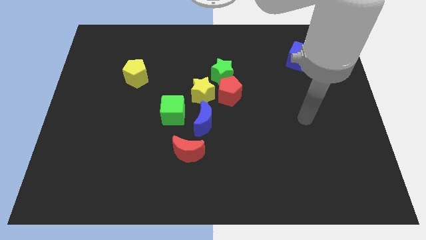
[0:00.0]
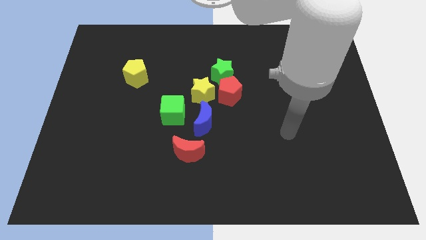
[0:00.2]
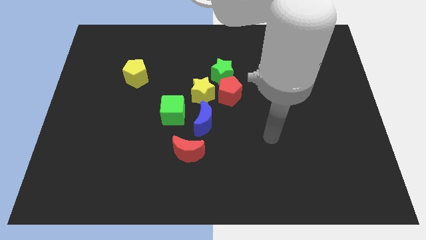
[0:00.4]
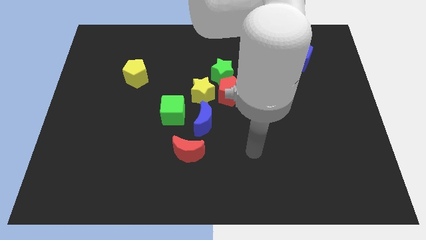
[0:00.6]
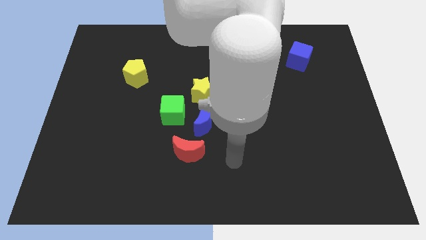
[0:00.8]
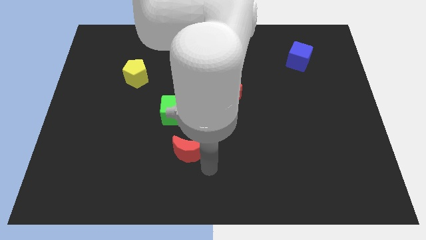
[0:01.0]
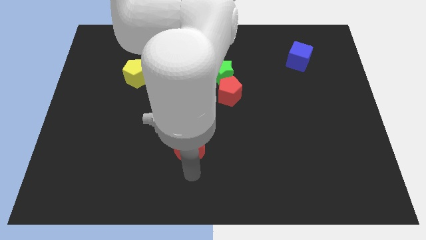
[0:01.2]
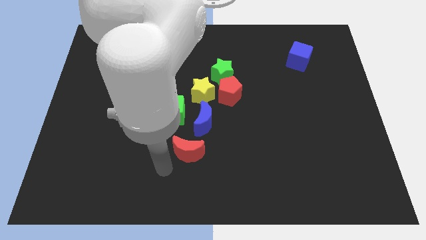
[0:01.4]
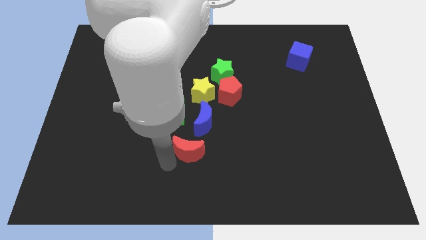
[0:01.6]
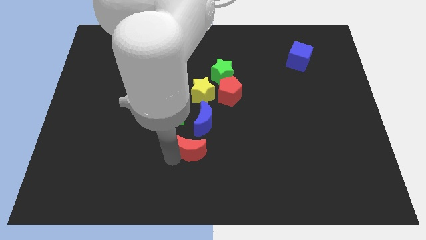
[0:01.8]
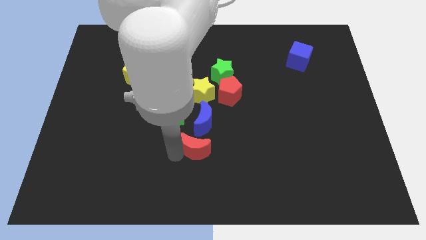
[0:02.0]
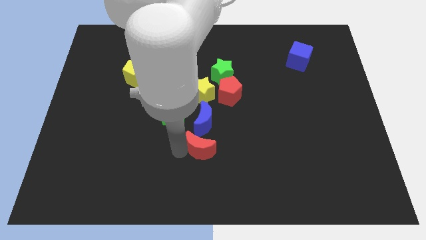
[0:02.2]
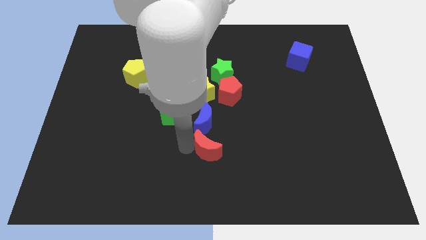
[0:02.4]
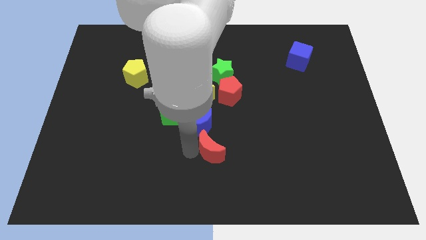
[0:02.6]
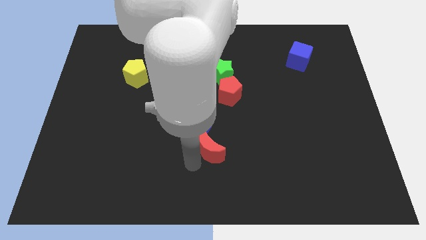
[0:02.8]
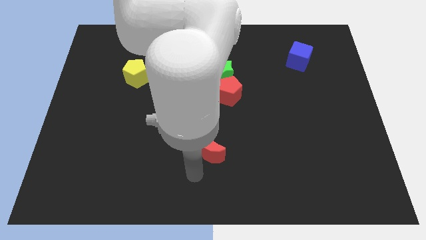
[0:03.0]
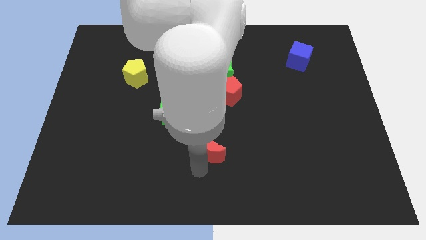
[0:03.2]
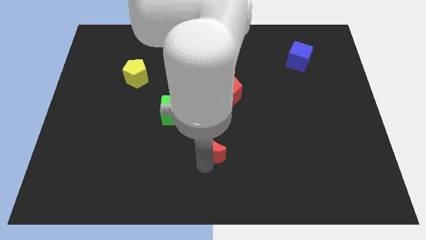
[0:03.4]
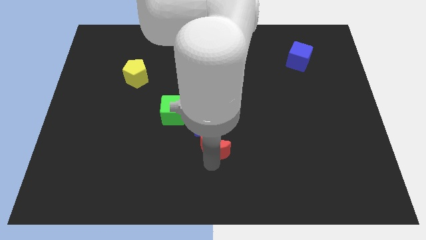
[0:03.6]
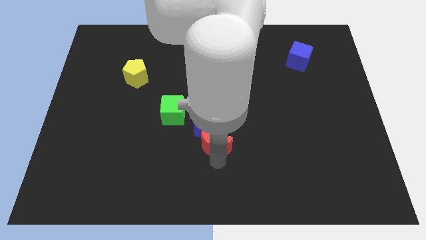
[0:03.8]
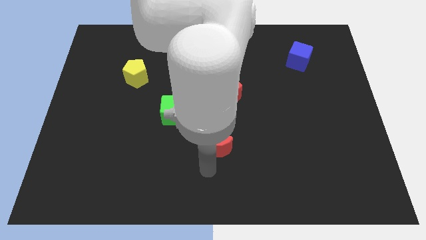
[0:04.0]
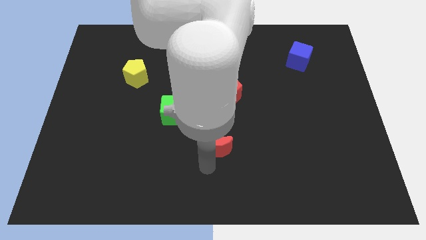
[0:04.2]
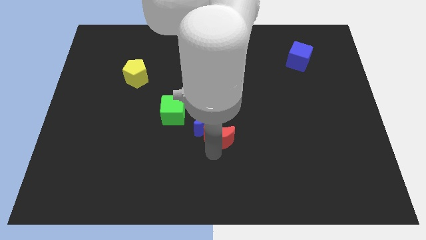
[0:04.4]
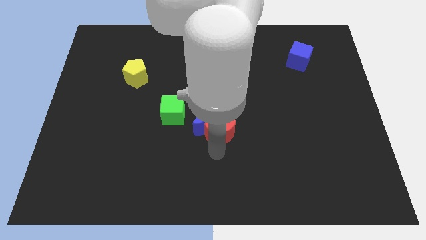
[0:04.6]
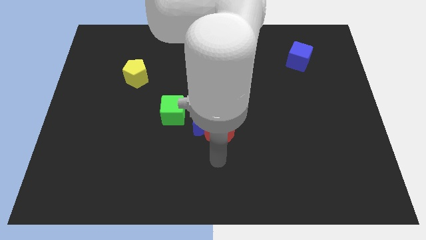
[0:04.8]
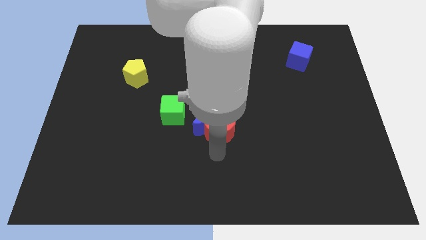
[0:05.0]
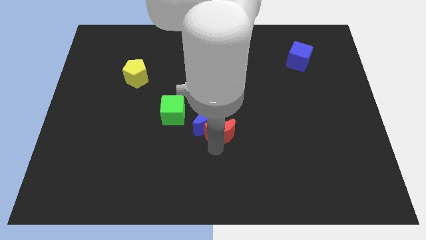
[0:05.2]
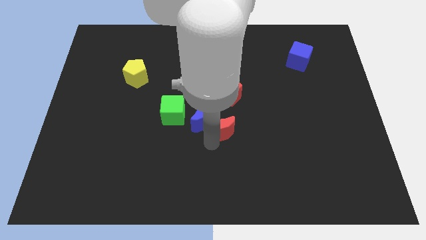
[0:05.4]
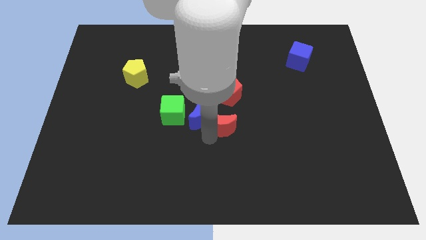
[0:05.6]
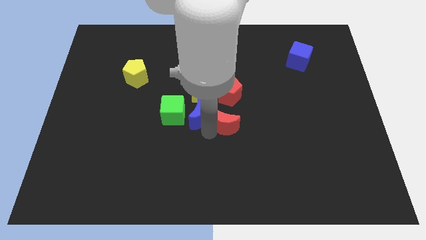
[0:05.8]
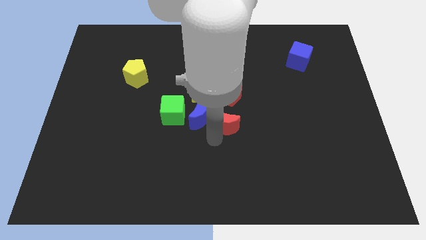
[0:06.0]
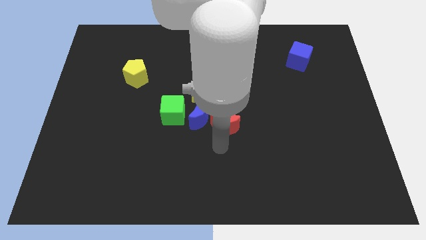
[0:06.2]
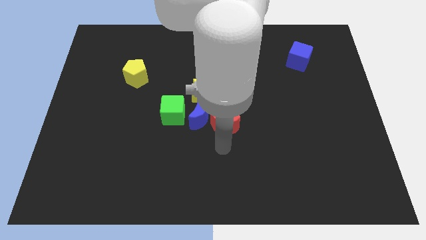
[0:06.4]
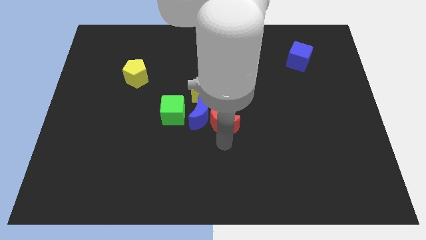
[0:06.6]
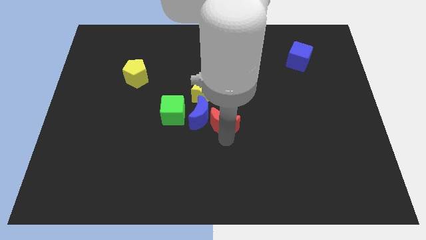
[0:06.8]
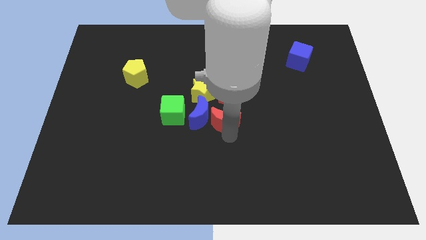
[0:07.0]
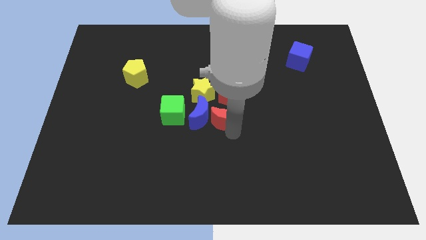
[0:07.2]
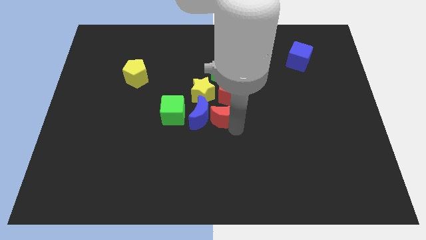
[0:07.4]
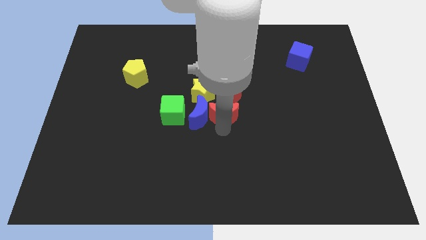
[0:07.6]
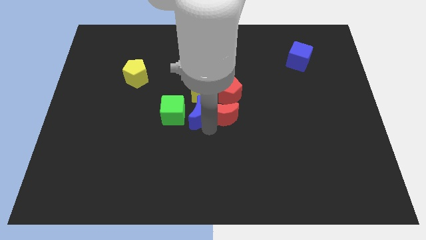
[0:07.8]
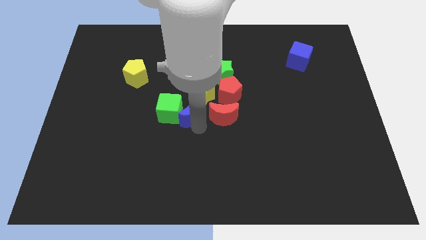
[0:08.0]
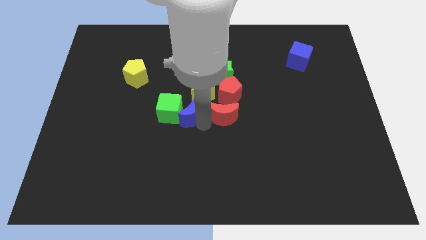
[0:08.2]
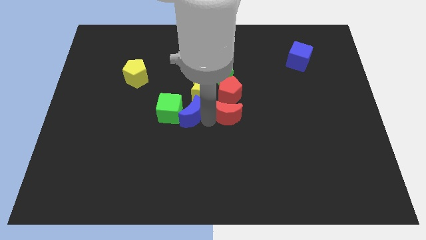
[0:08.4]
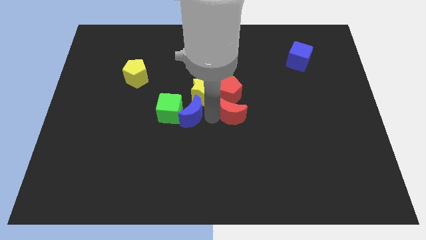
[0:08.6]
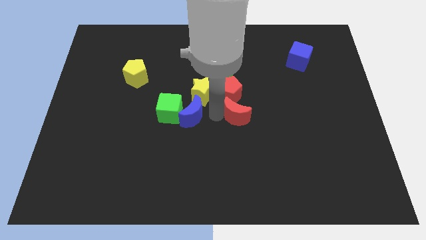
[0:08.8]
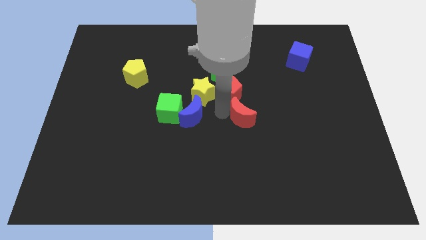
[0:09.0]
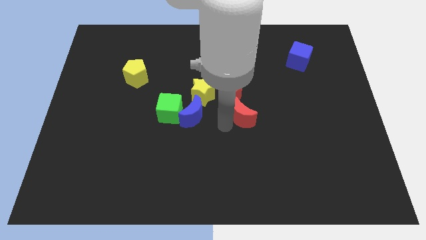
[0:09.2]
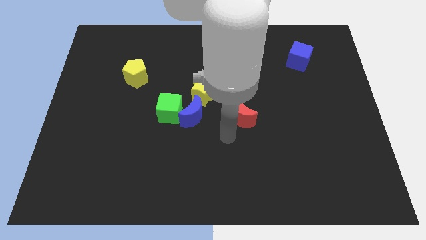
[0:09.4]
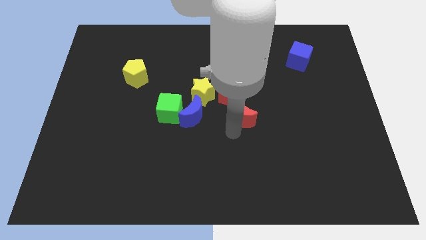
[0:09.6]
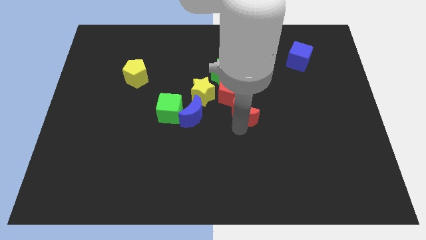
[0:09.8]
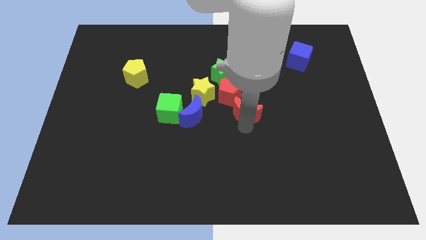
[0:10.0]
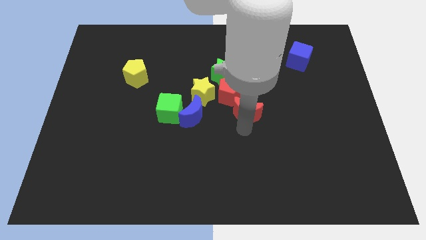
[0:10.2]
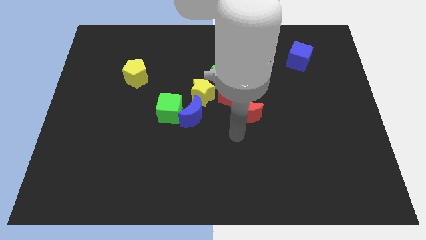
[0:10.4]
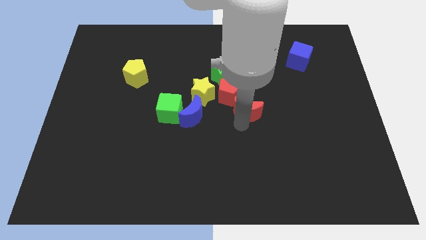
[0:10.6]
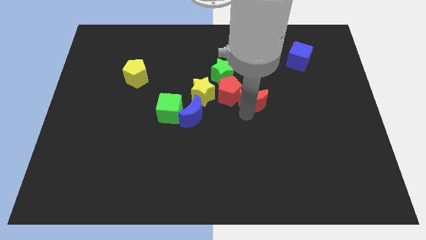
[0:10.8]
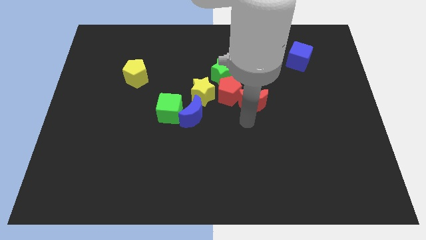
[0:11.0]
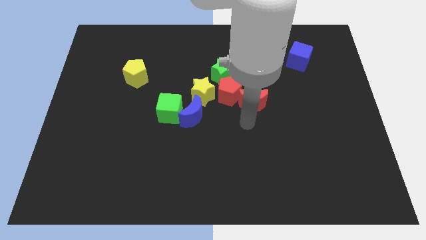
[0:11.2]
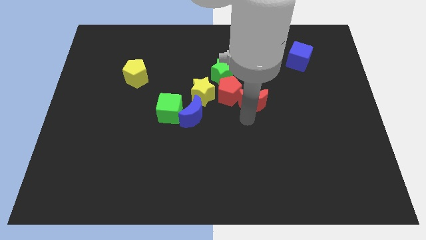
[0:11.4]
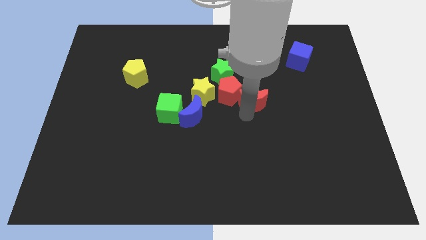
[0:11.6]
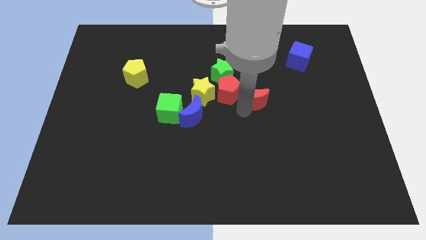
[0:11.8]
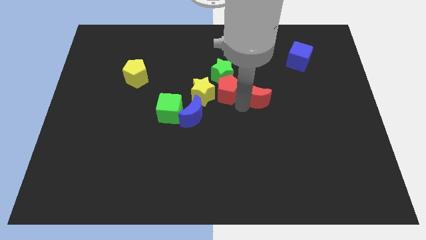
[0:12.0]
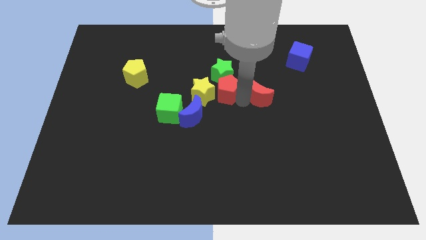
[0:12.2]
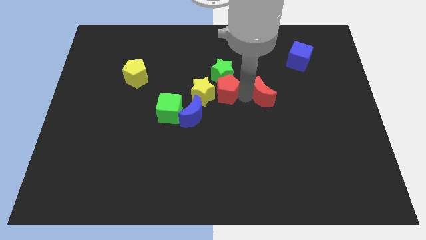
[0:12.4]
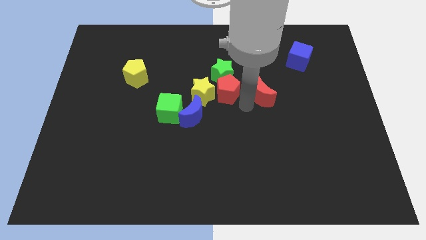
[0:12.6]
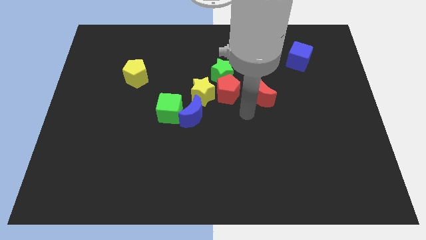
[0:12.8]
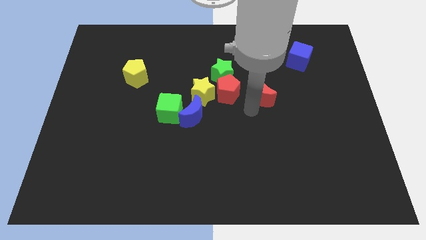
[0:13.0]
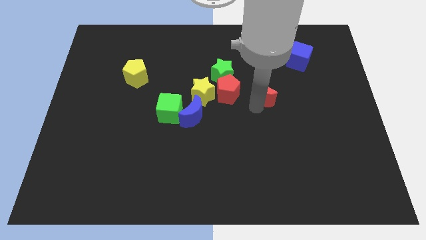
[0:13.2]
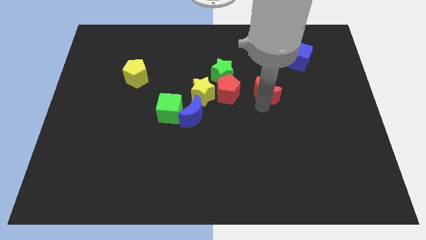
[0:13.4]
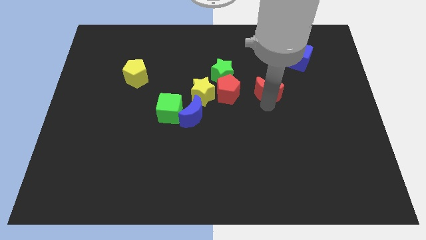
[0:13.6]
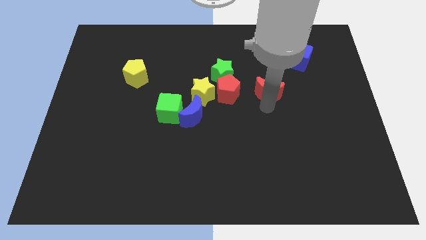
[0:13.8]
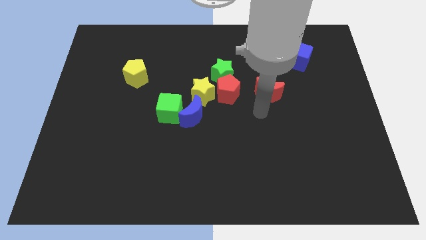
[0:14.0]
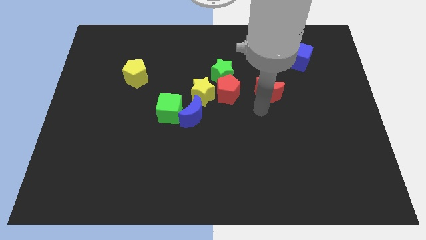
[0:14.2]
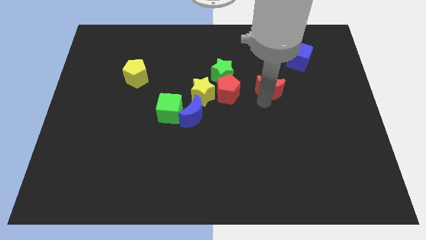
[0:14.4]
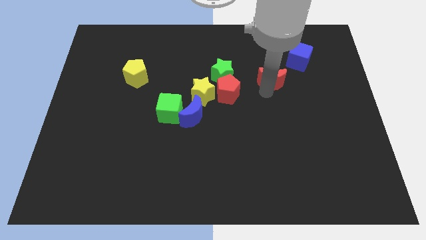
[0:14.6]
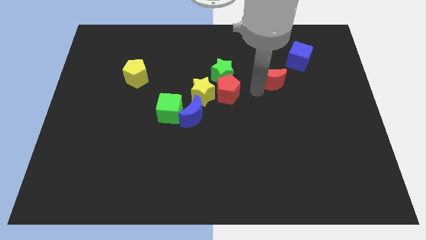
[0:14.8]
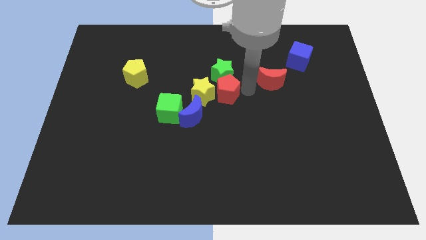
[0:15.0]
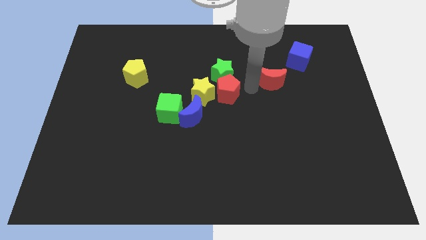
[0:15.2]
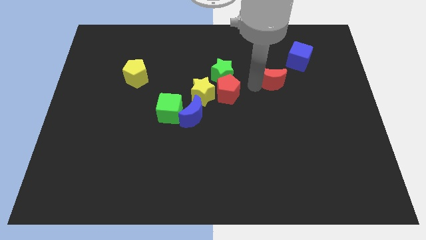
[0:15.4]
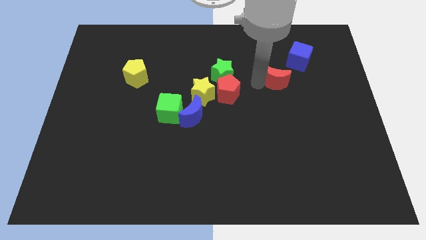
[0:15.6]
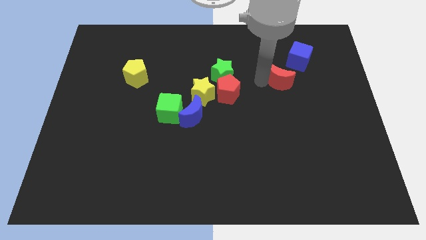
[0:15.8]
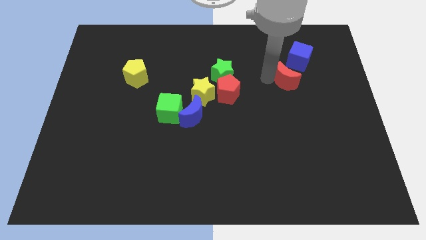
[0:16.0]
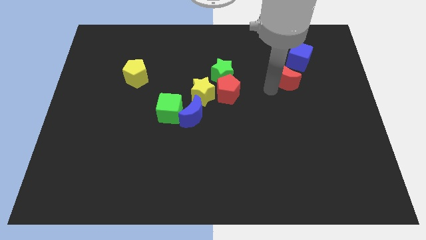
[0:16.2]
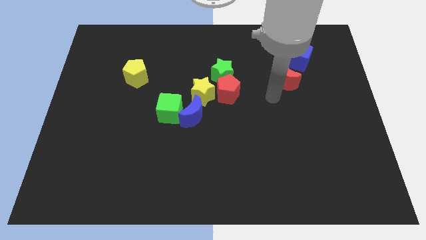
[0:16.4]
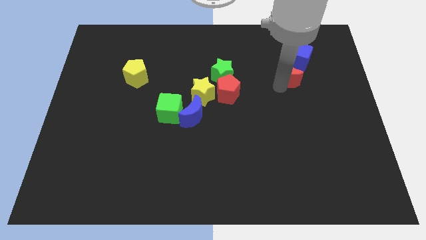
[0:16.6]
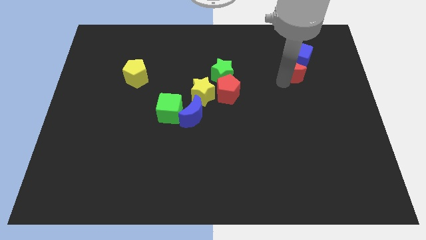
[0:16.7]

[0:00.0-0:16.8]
move the red moon close to the blue cube
